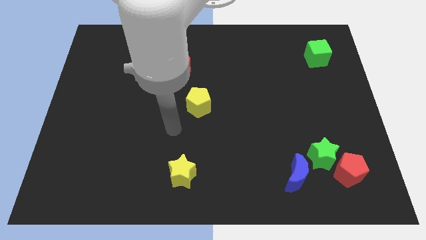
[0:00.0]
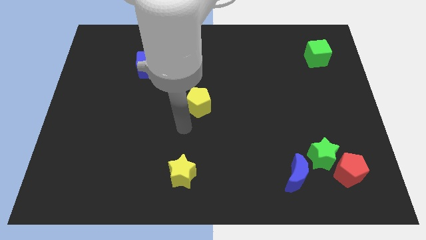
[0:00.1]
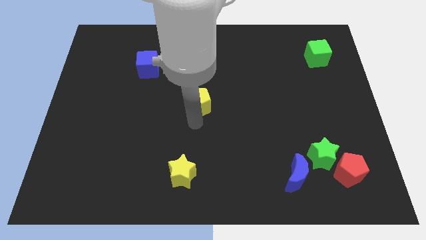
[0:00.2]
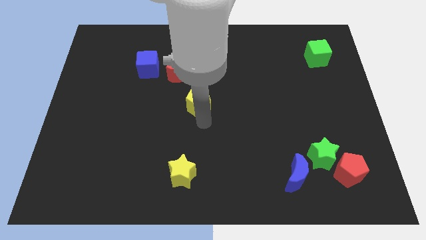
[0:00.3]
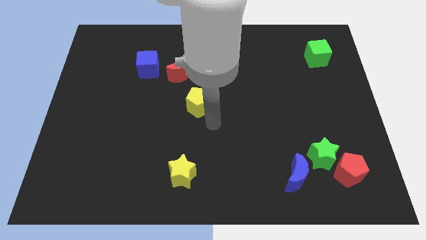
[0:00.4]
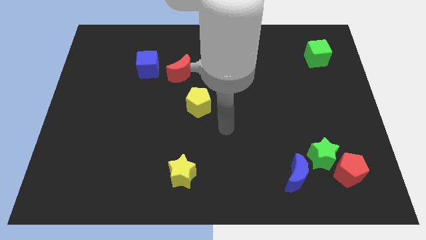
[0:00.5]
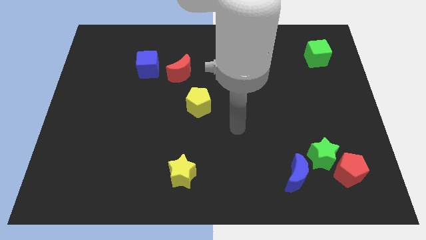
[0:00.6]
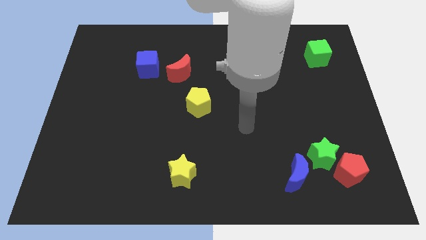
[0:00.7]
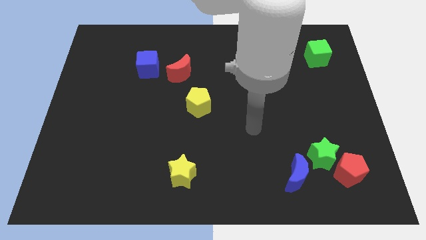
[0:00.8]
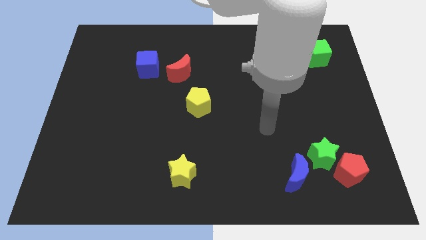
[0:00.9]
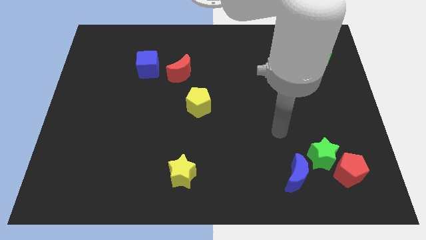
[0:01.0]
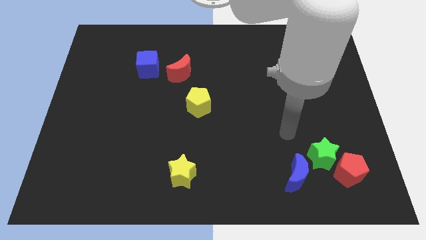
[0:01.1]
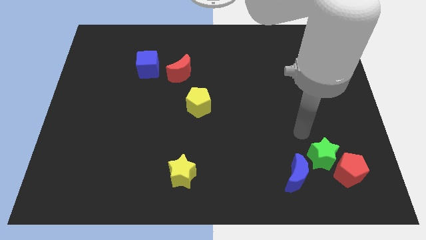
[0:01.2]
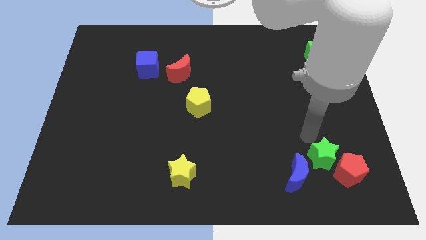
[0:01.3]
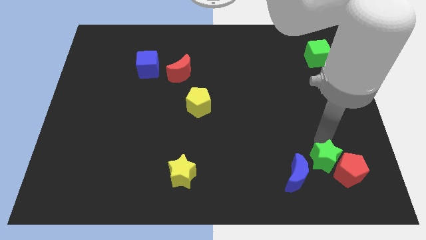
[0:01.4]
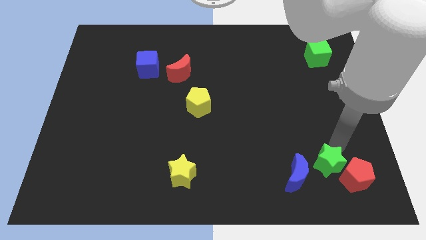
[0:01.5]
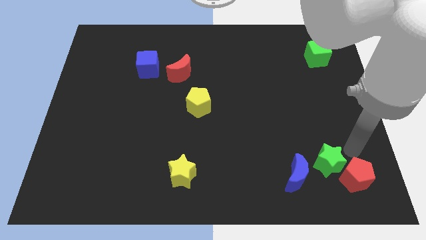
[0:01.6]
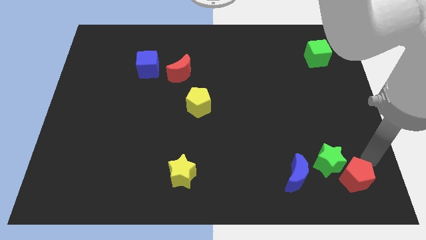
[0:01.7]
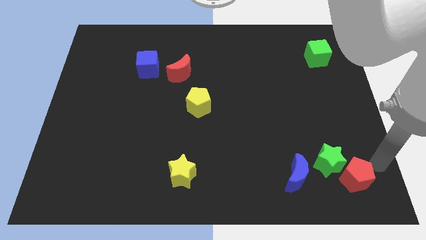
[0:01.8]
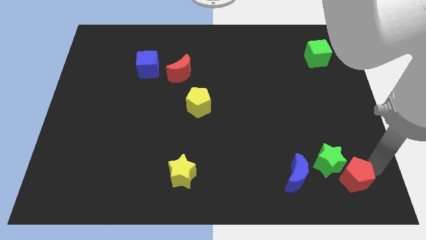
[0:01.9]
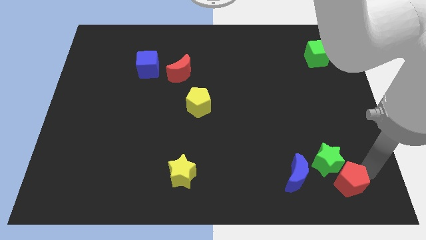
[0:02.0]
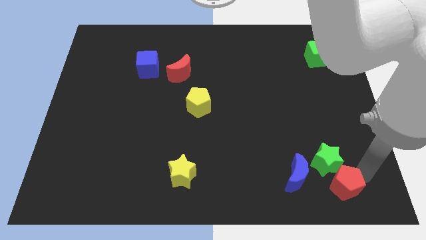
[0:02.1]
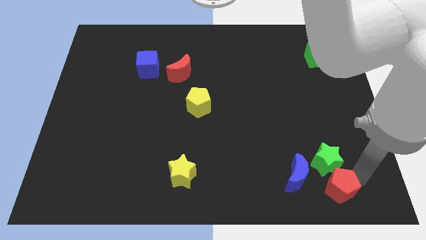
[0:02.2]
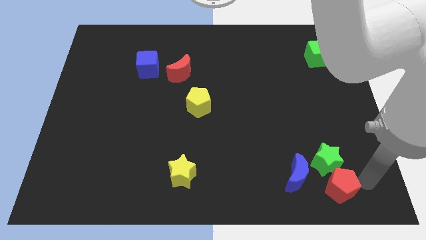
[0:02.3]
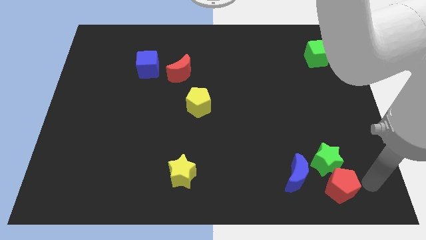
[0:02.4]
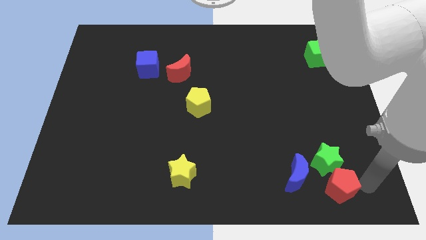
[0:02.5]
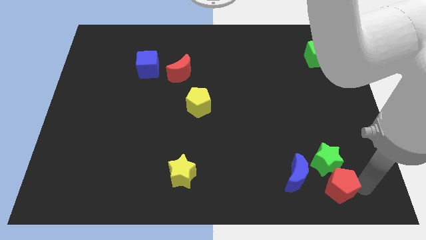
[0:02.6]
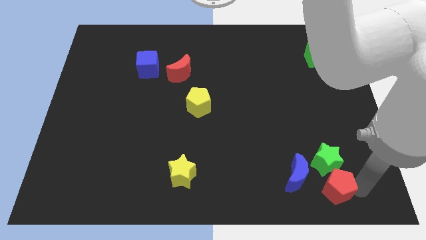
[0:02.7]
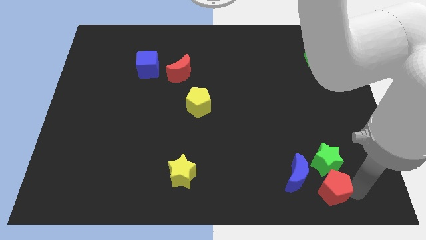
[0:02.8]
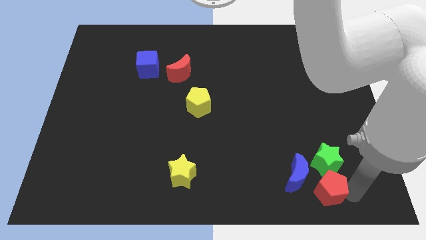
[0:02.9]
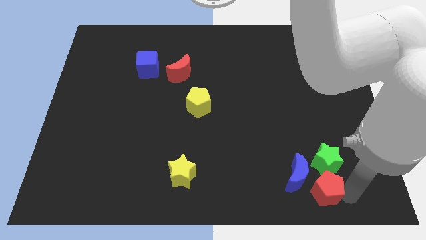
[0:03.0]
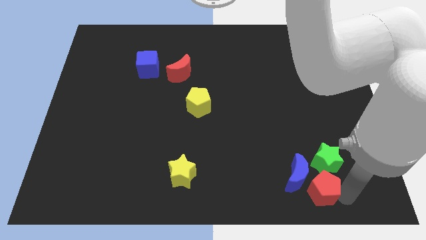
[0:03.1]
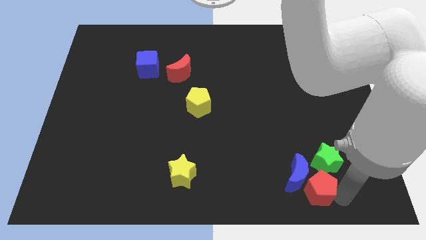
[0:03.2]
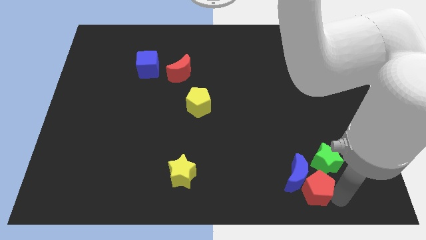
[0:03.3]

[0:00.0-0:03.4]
move the red pentagon a little bit left

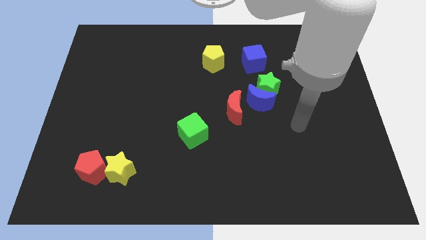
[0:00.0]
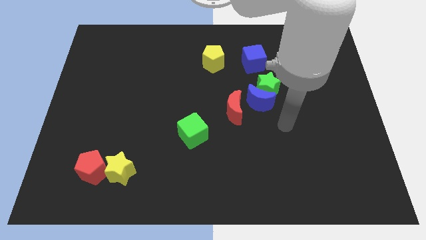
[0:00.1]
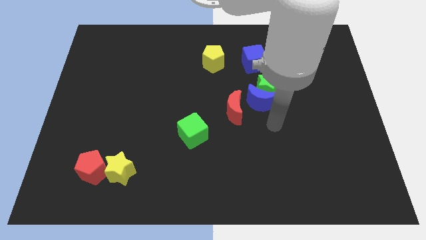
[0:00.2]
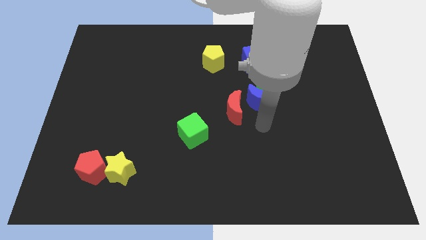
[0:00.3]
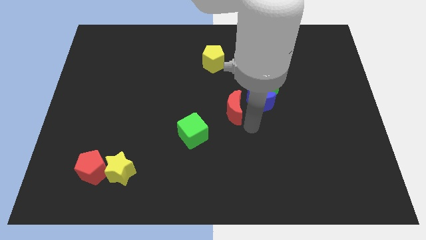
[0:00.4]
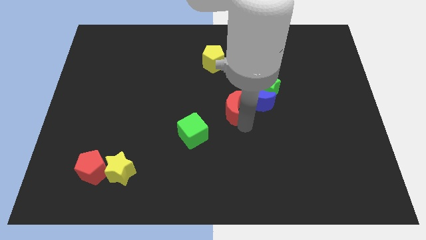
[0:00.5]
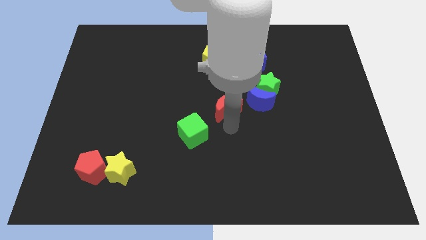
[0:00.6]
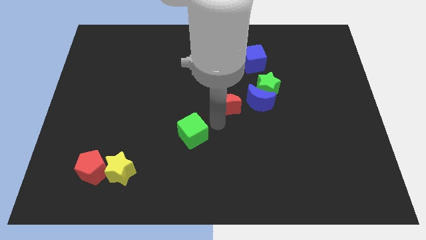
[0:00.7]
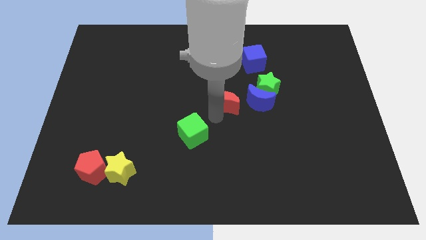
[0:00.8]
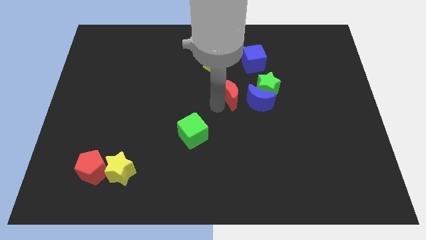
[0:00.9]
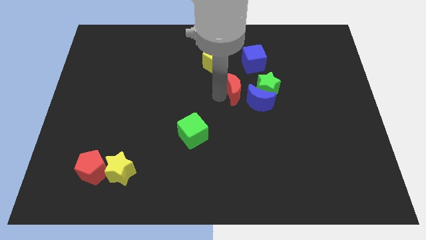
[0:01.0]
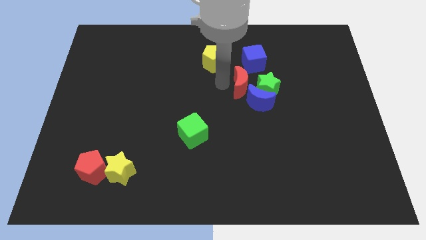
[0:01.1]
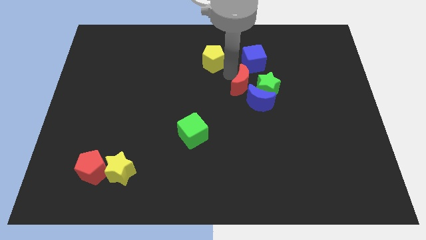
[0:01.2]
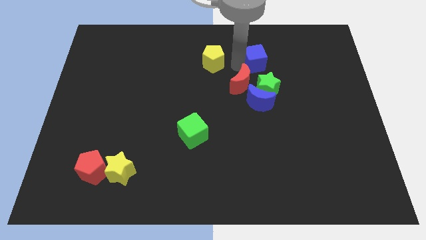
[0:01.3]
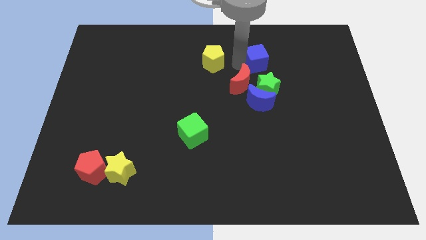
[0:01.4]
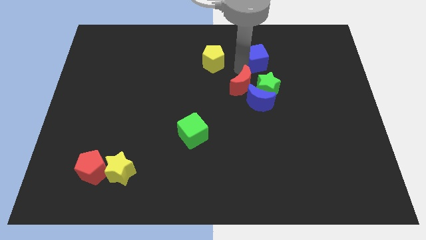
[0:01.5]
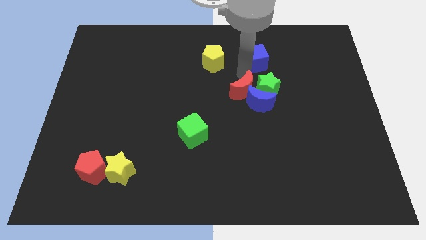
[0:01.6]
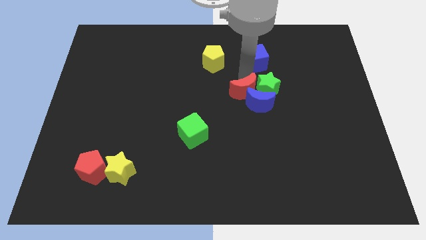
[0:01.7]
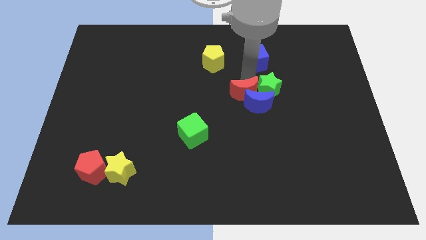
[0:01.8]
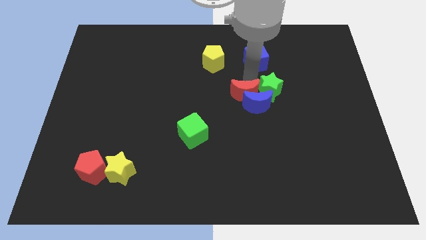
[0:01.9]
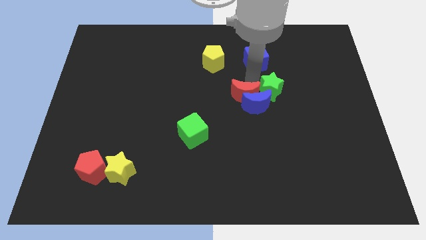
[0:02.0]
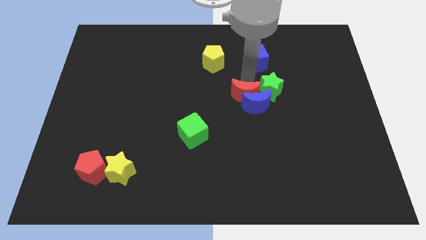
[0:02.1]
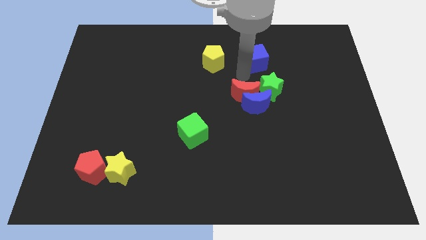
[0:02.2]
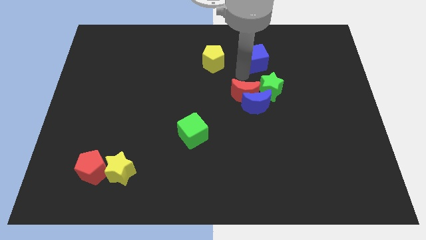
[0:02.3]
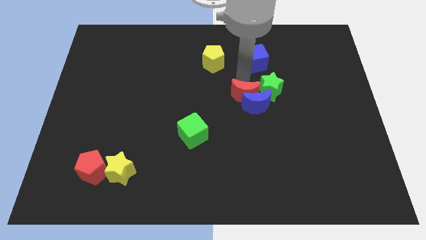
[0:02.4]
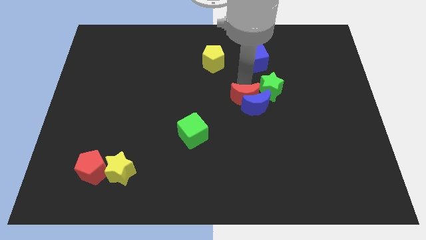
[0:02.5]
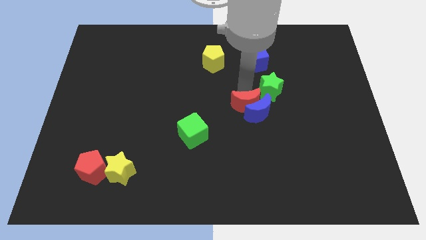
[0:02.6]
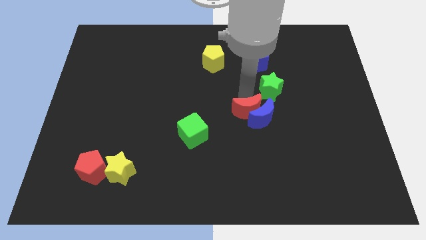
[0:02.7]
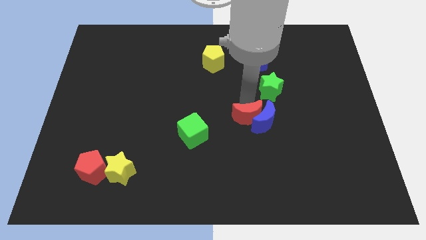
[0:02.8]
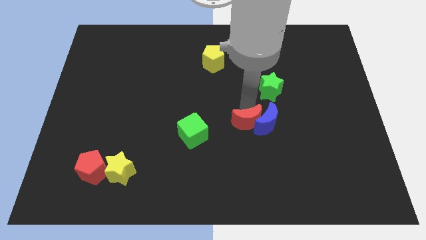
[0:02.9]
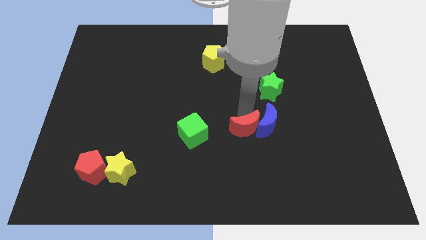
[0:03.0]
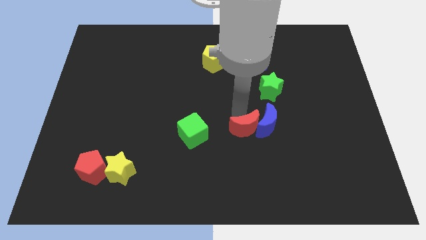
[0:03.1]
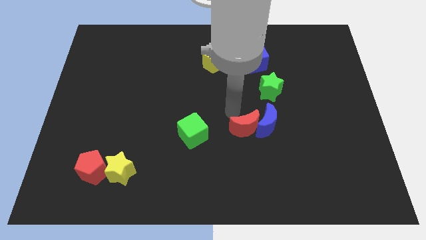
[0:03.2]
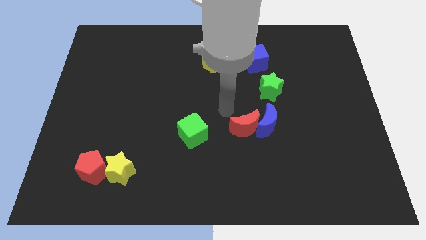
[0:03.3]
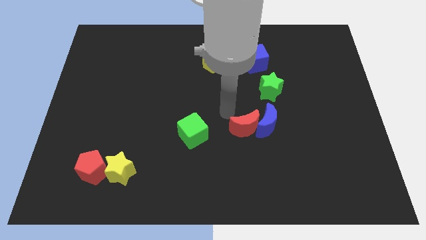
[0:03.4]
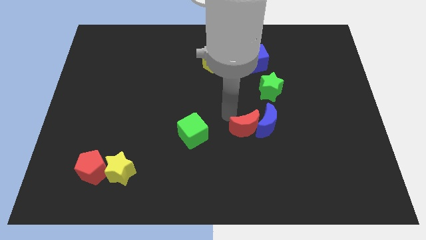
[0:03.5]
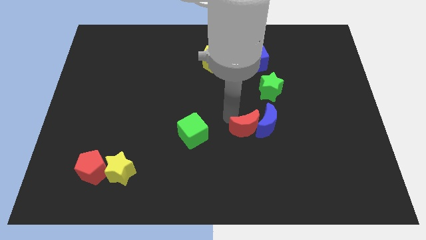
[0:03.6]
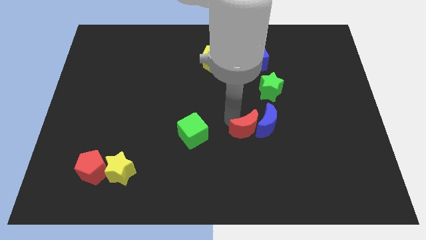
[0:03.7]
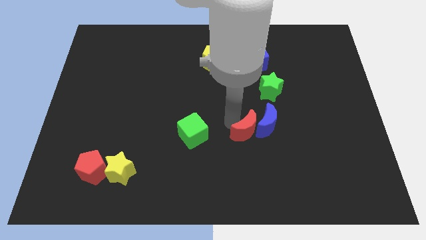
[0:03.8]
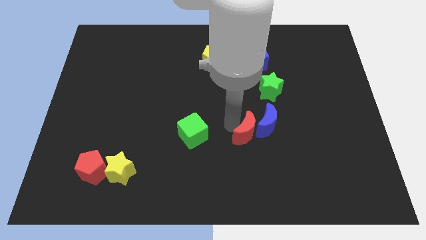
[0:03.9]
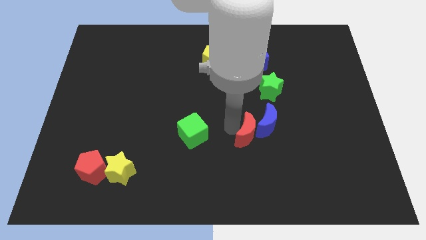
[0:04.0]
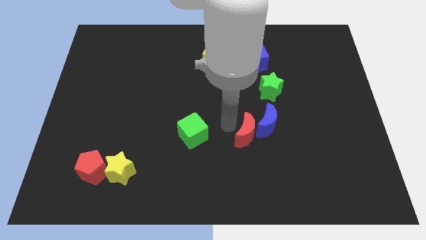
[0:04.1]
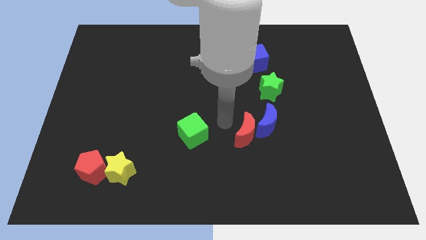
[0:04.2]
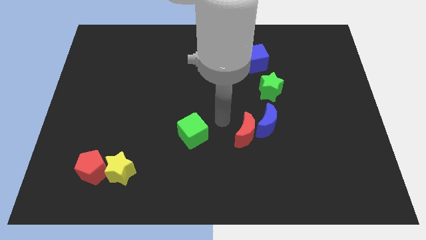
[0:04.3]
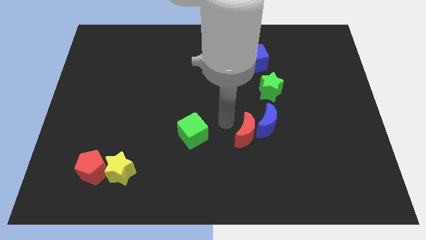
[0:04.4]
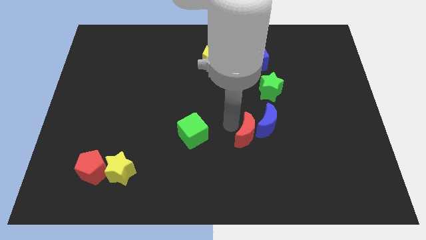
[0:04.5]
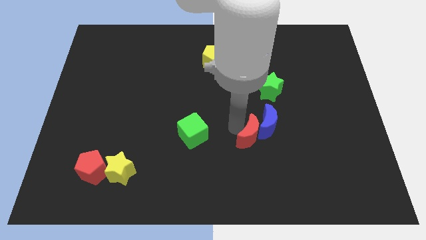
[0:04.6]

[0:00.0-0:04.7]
slightly move the red moon downwards and right
